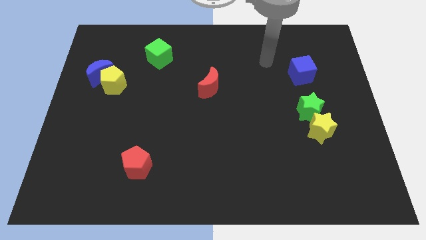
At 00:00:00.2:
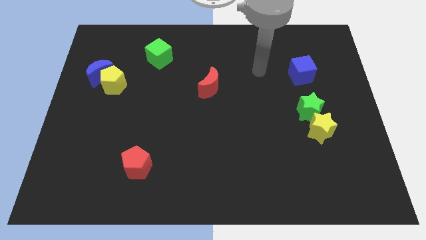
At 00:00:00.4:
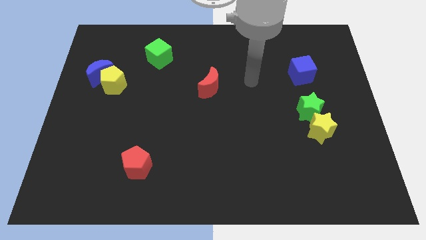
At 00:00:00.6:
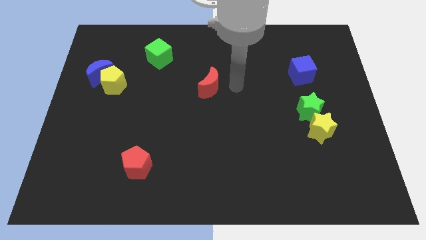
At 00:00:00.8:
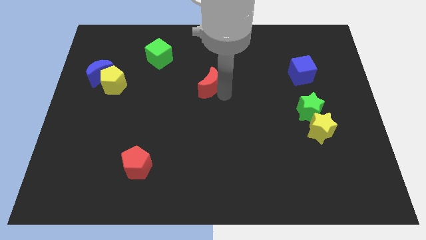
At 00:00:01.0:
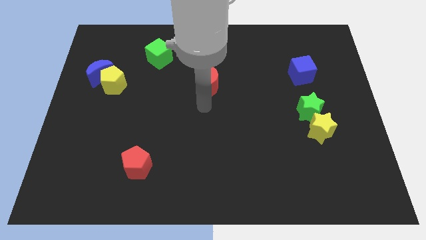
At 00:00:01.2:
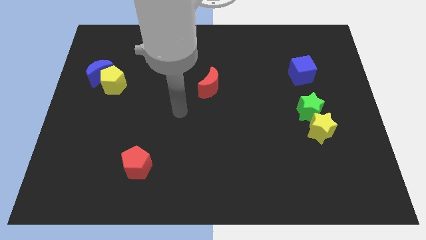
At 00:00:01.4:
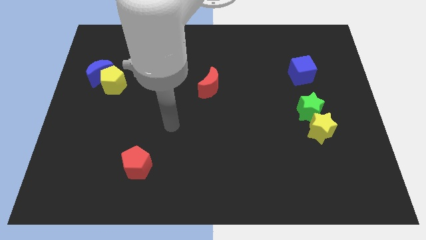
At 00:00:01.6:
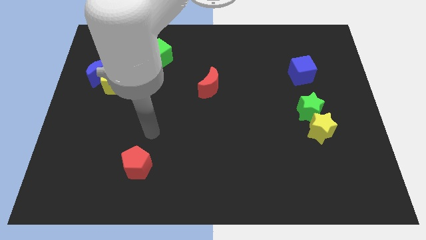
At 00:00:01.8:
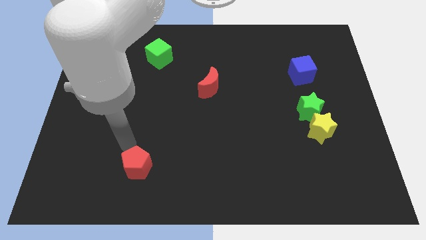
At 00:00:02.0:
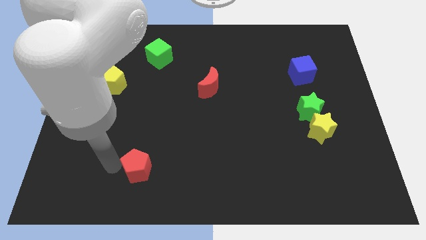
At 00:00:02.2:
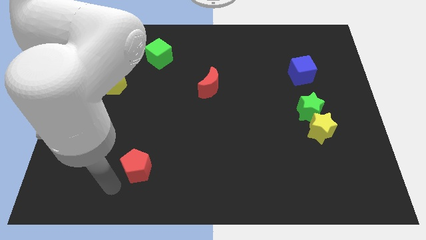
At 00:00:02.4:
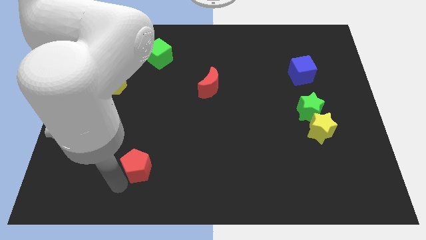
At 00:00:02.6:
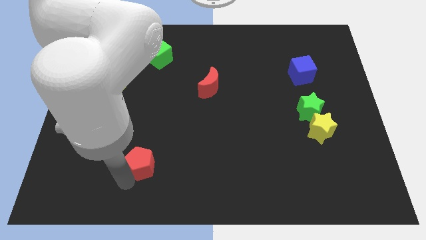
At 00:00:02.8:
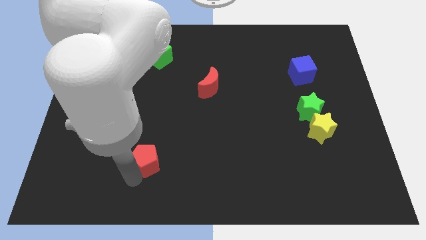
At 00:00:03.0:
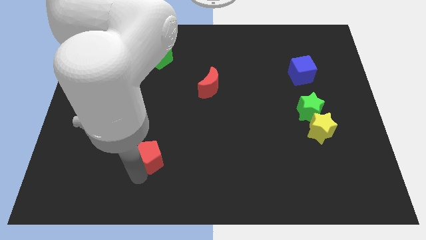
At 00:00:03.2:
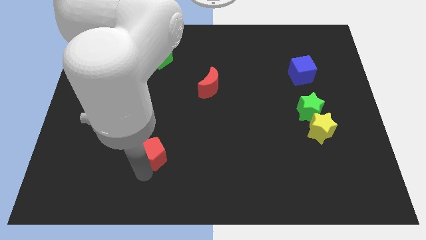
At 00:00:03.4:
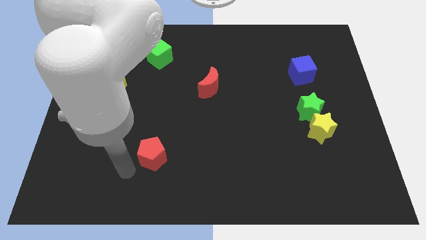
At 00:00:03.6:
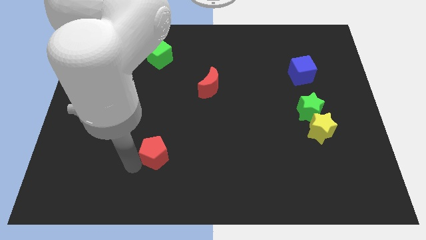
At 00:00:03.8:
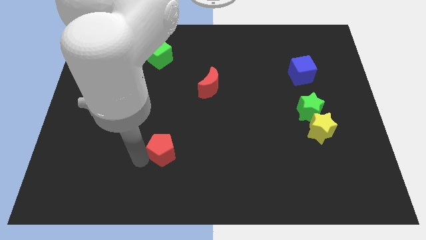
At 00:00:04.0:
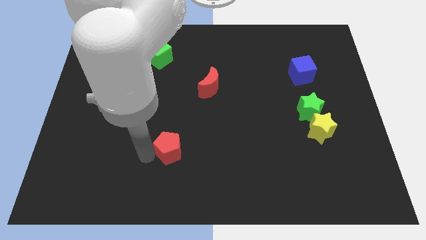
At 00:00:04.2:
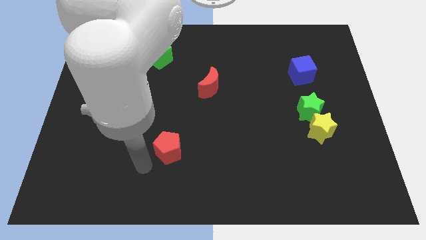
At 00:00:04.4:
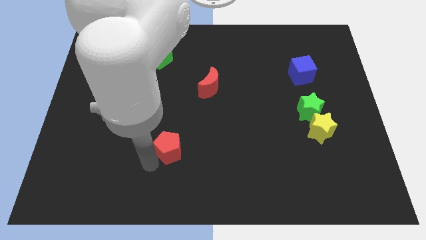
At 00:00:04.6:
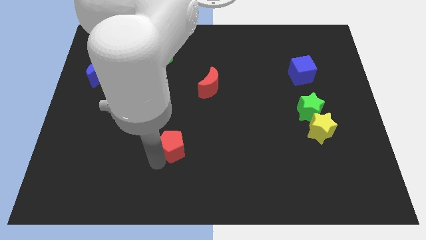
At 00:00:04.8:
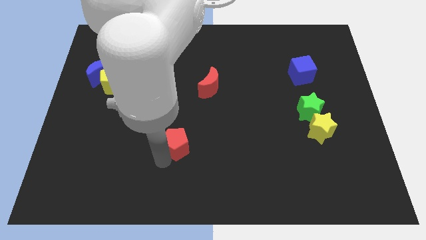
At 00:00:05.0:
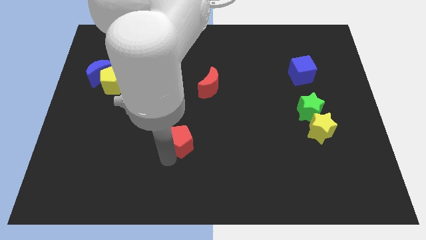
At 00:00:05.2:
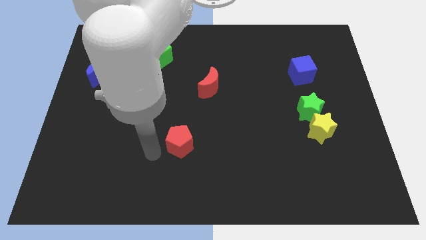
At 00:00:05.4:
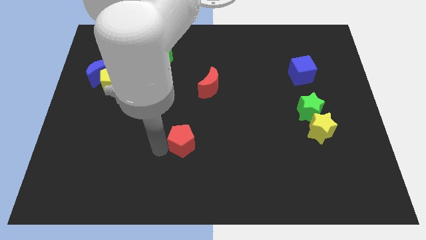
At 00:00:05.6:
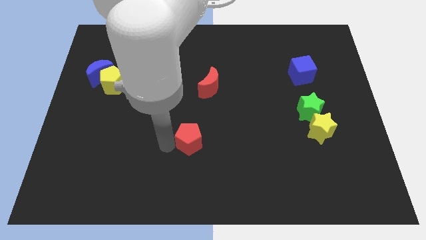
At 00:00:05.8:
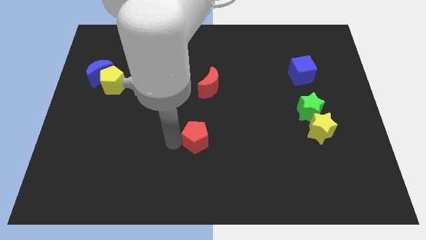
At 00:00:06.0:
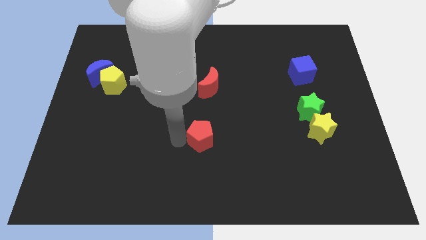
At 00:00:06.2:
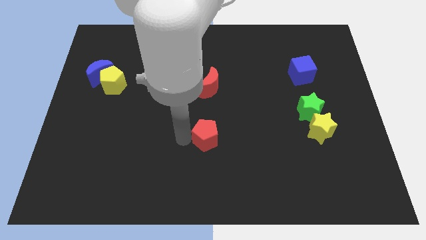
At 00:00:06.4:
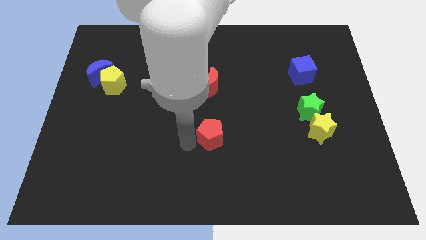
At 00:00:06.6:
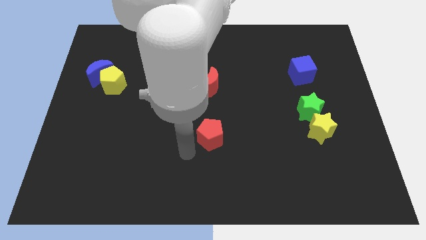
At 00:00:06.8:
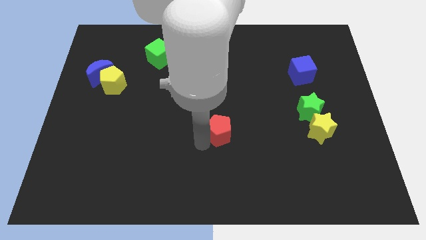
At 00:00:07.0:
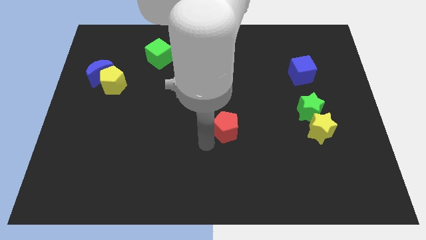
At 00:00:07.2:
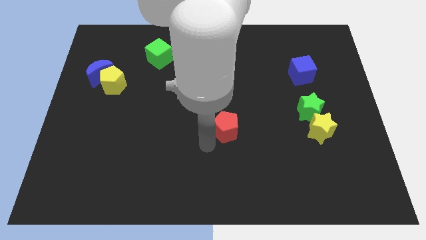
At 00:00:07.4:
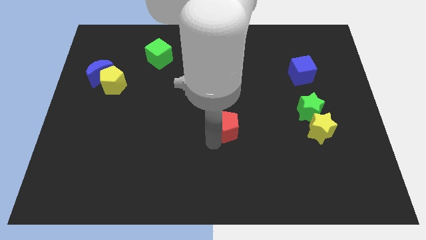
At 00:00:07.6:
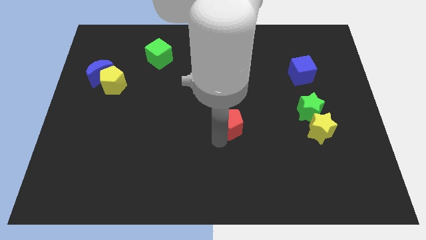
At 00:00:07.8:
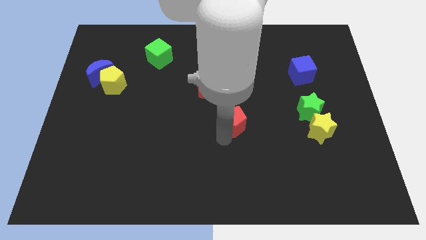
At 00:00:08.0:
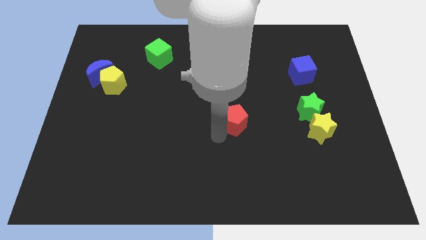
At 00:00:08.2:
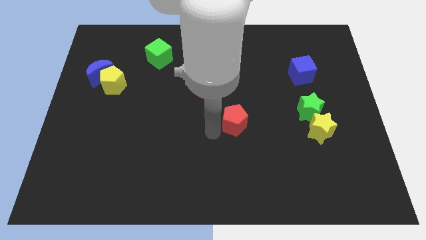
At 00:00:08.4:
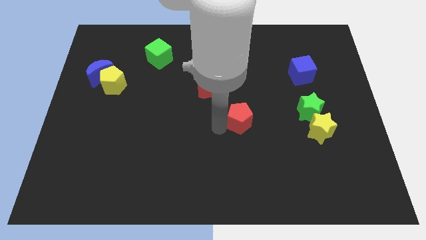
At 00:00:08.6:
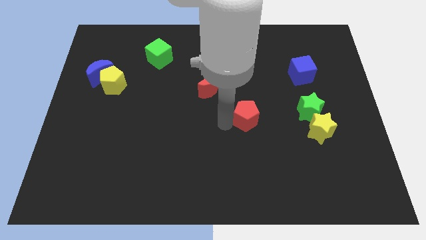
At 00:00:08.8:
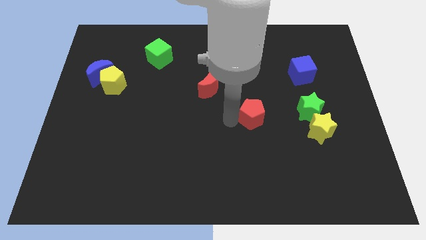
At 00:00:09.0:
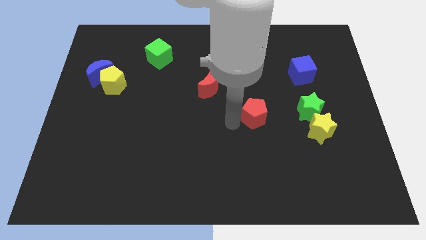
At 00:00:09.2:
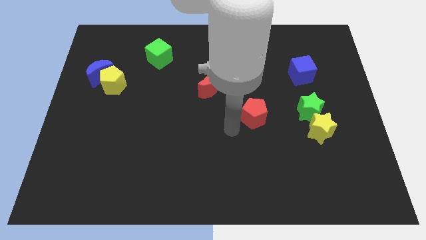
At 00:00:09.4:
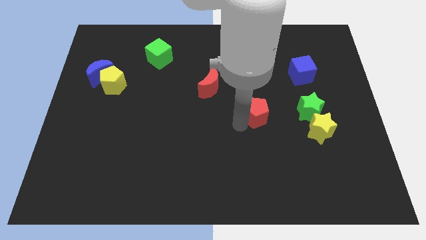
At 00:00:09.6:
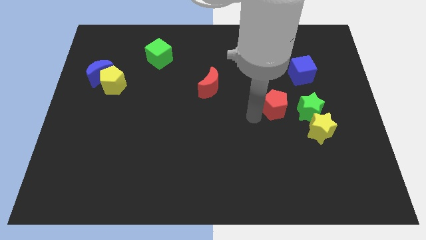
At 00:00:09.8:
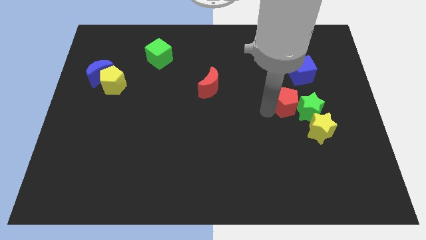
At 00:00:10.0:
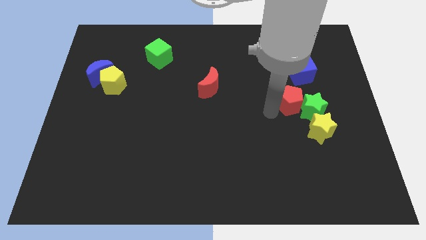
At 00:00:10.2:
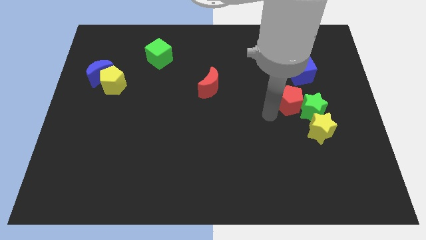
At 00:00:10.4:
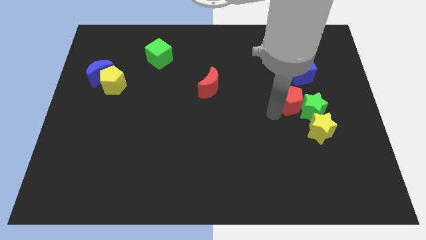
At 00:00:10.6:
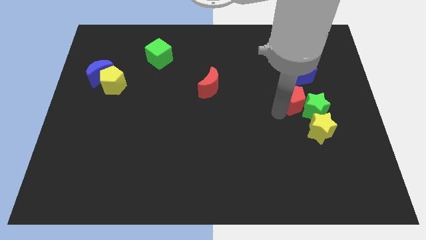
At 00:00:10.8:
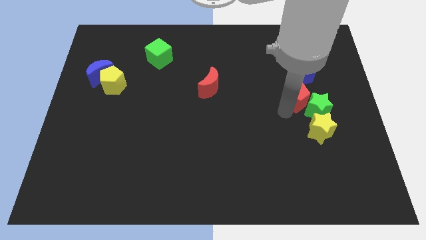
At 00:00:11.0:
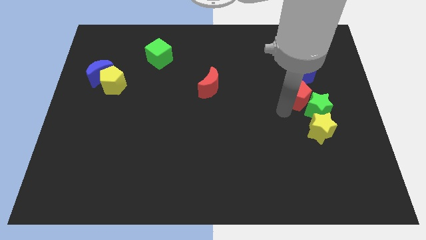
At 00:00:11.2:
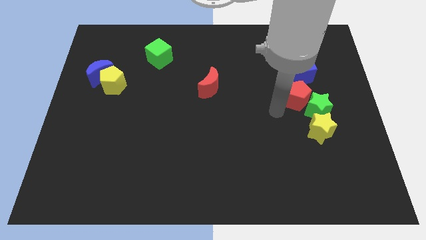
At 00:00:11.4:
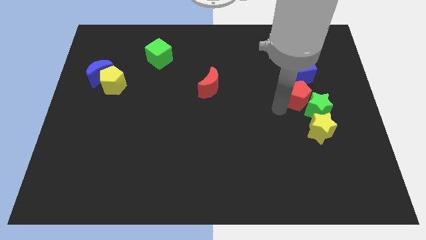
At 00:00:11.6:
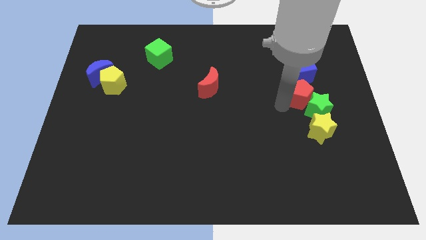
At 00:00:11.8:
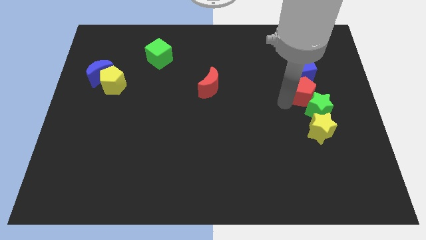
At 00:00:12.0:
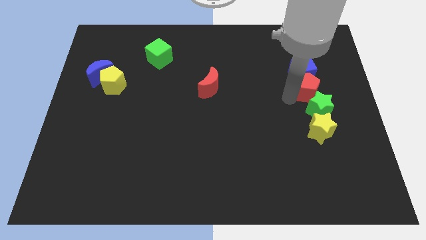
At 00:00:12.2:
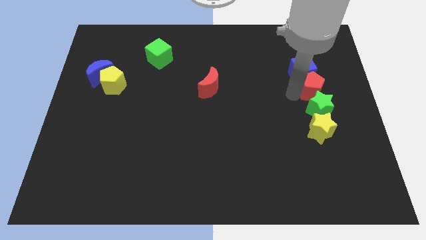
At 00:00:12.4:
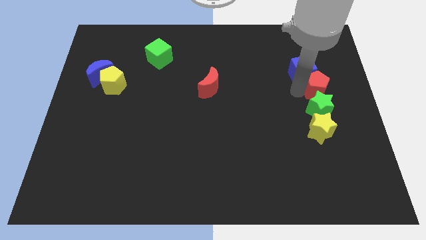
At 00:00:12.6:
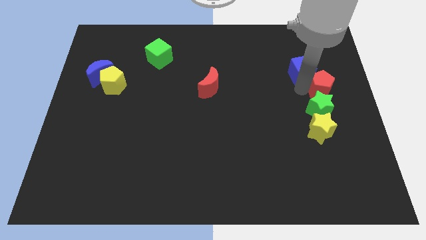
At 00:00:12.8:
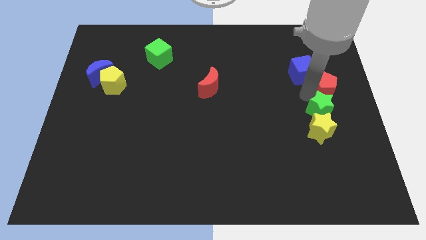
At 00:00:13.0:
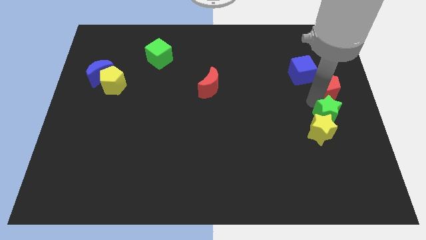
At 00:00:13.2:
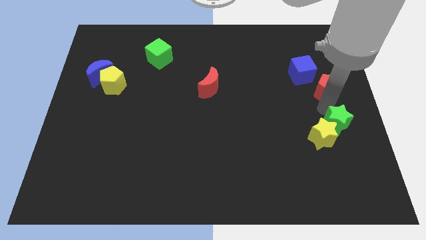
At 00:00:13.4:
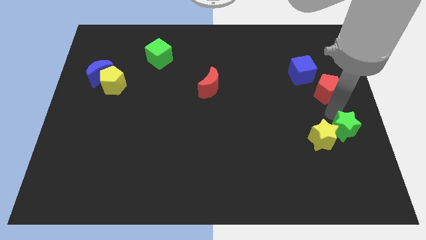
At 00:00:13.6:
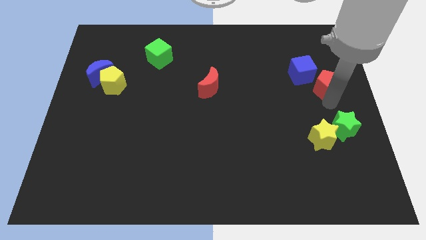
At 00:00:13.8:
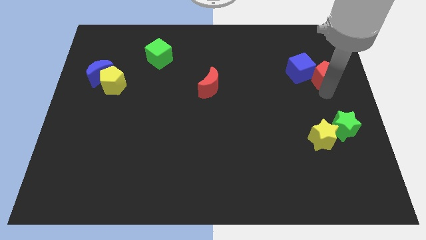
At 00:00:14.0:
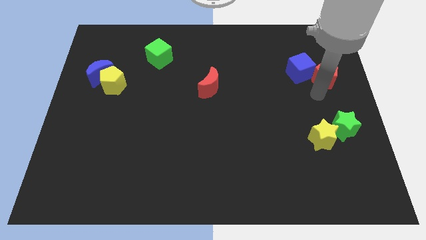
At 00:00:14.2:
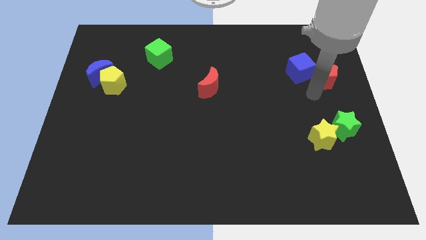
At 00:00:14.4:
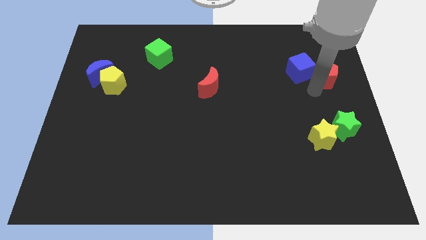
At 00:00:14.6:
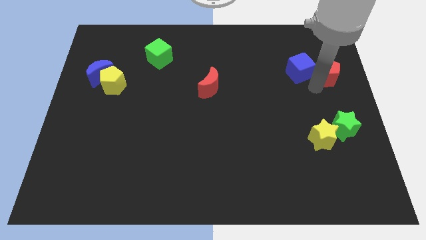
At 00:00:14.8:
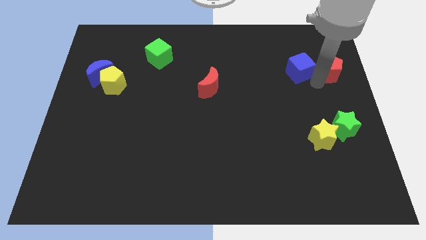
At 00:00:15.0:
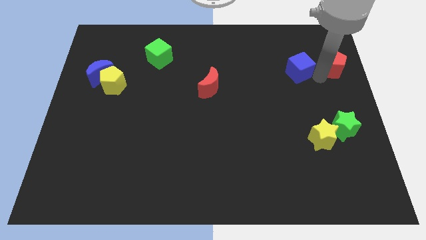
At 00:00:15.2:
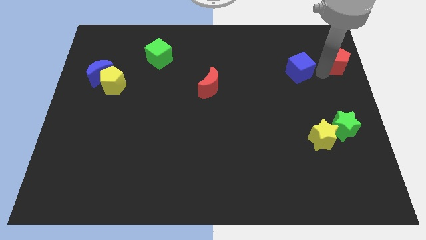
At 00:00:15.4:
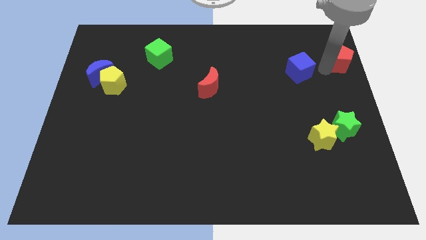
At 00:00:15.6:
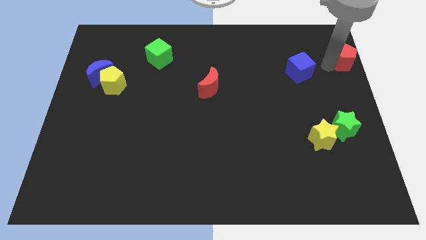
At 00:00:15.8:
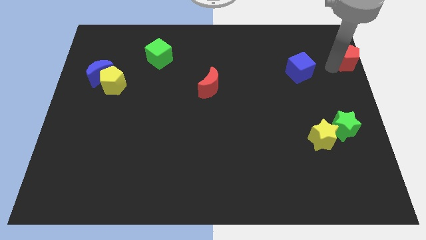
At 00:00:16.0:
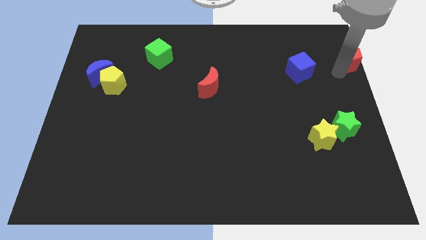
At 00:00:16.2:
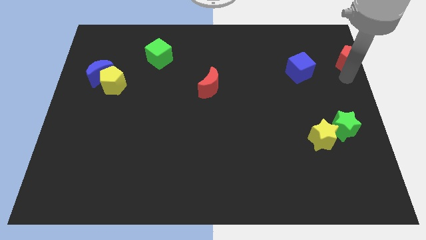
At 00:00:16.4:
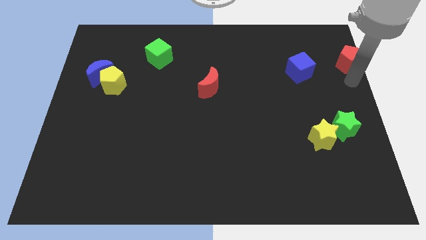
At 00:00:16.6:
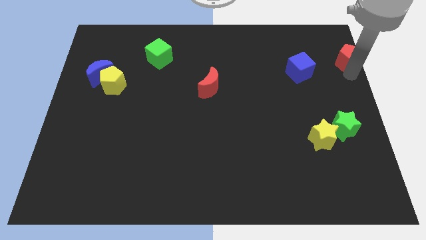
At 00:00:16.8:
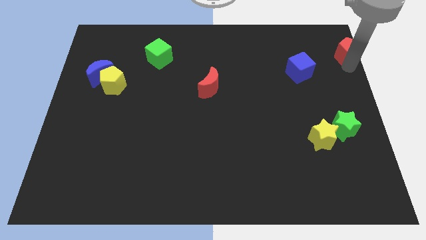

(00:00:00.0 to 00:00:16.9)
push the red pentagon to the top right
